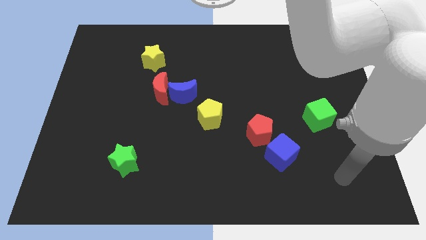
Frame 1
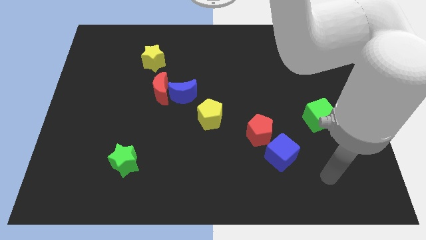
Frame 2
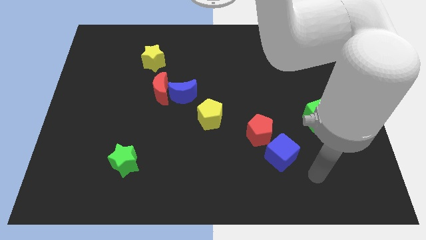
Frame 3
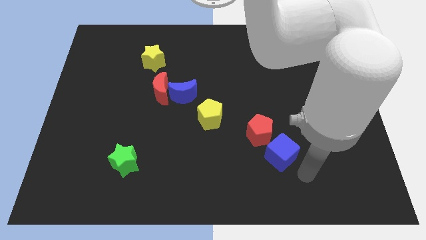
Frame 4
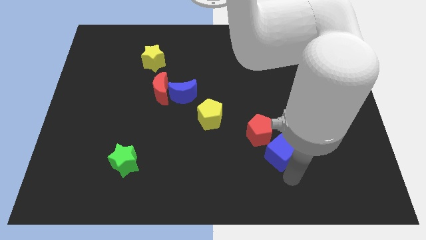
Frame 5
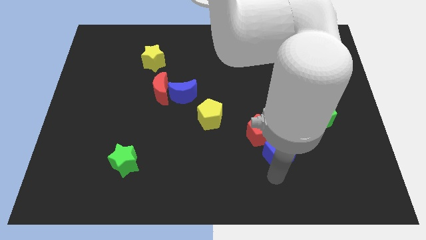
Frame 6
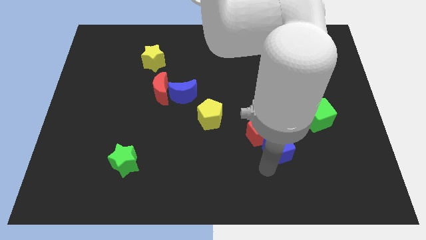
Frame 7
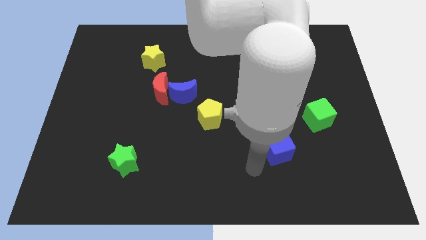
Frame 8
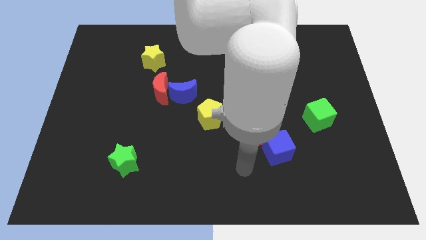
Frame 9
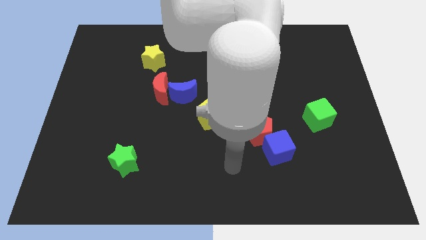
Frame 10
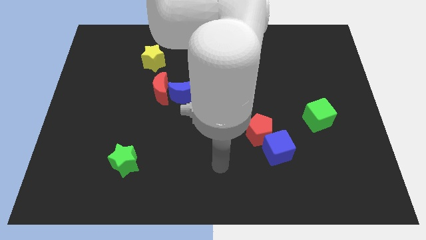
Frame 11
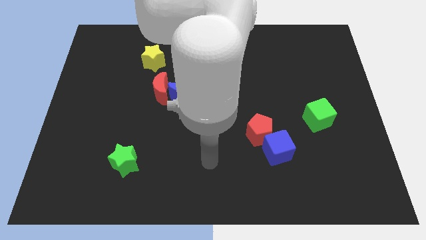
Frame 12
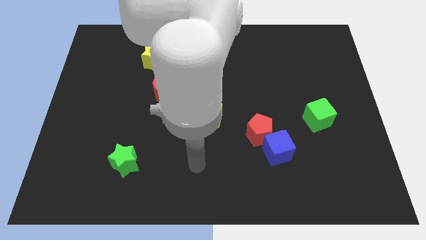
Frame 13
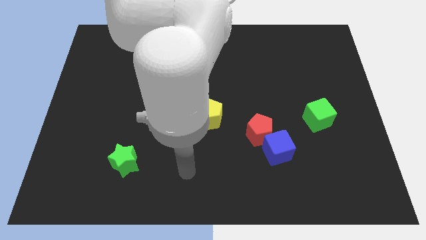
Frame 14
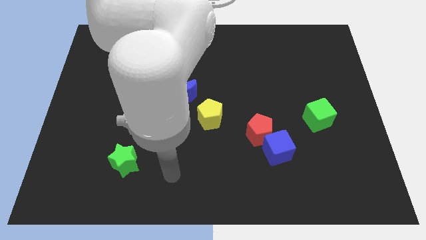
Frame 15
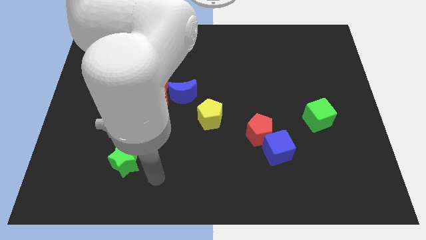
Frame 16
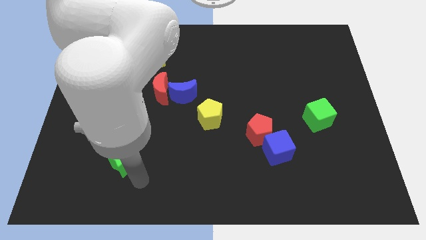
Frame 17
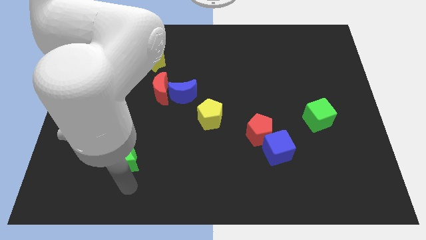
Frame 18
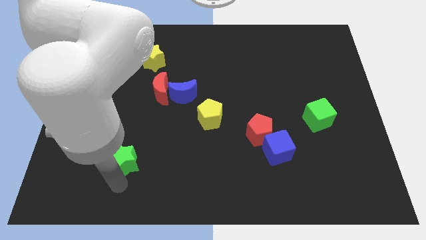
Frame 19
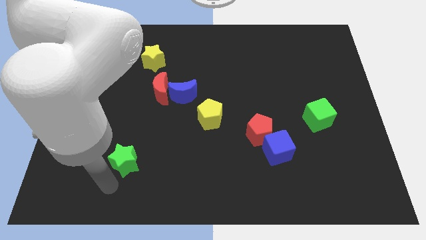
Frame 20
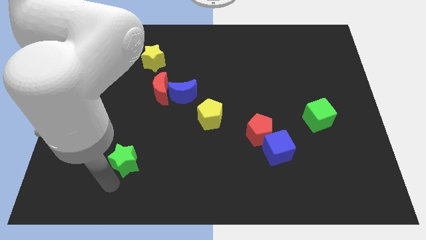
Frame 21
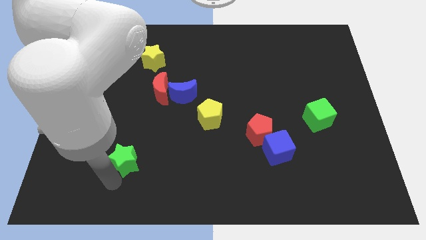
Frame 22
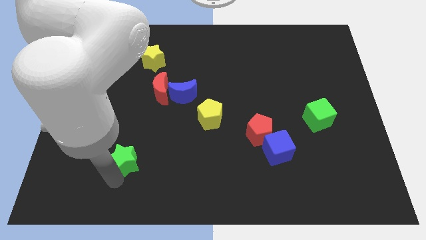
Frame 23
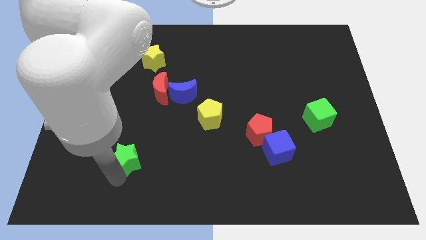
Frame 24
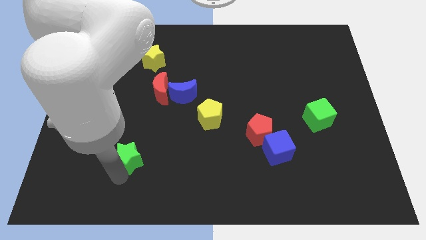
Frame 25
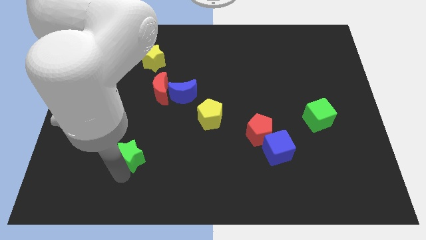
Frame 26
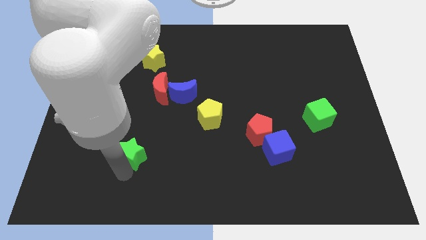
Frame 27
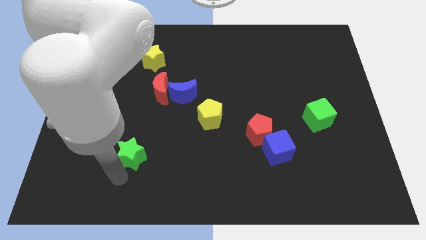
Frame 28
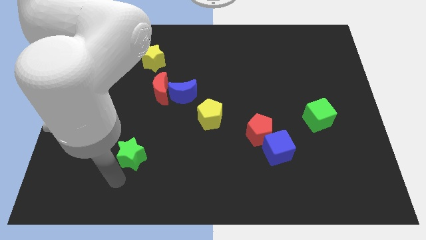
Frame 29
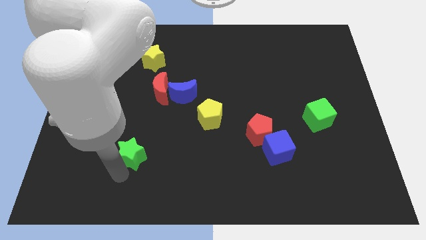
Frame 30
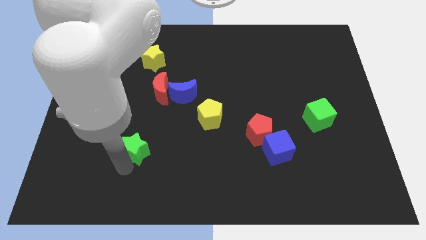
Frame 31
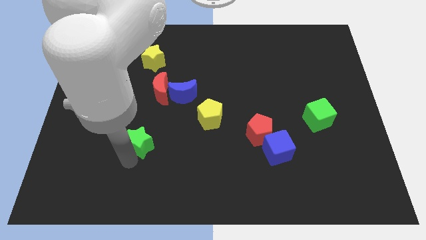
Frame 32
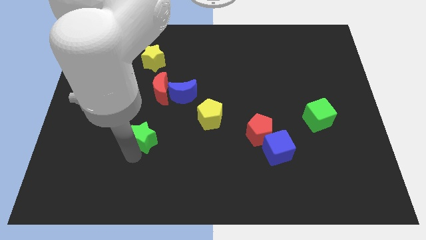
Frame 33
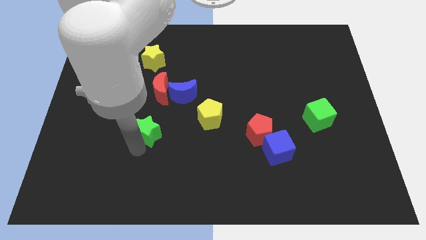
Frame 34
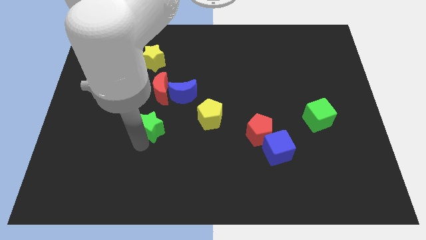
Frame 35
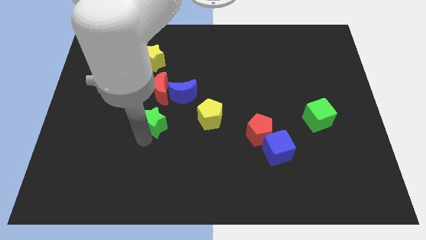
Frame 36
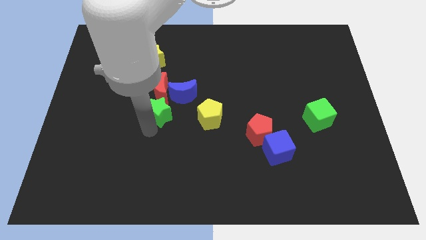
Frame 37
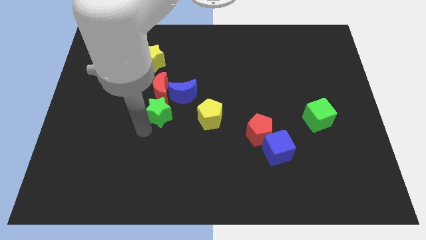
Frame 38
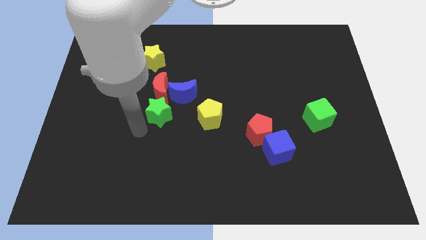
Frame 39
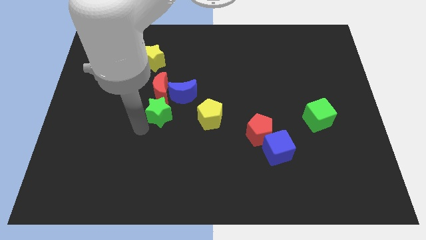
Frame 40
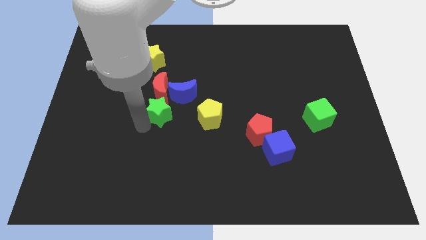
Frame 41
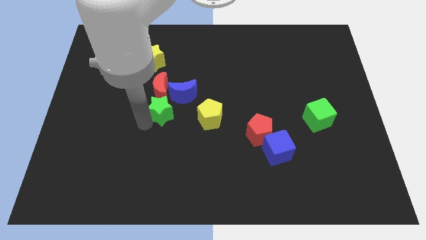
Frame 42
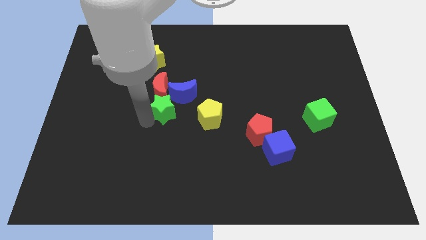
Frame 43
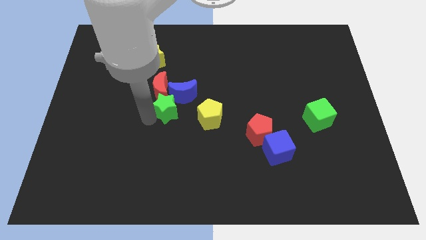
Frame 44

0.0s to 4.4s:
put the green star close to the blue moon

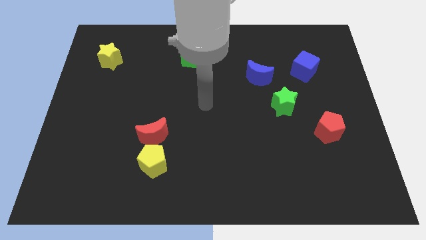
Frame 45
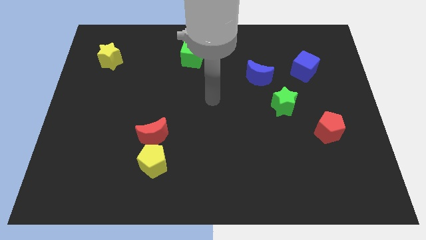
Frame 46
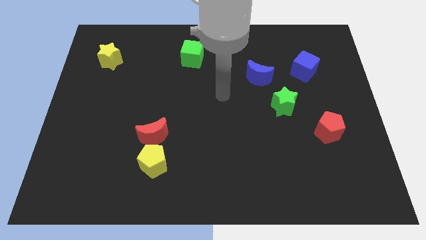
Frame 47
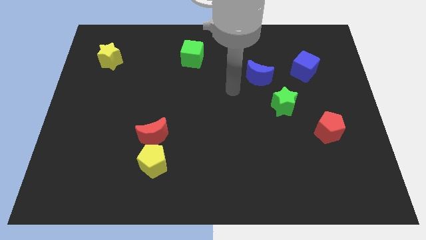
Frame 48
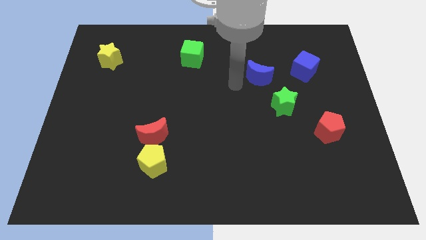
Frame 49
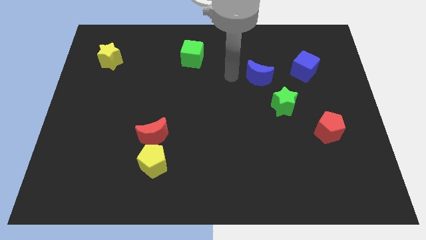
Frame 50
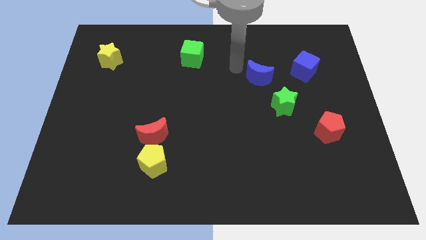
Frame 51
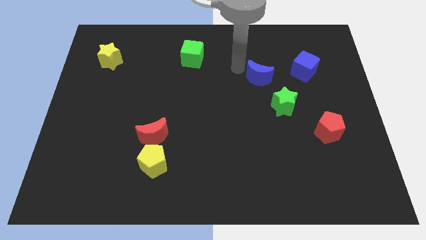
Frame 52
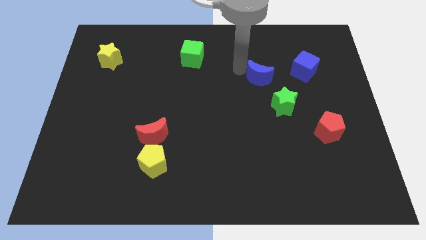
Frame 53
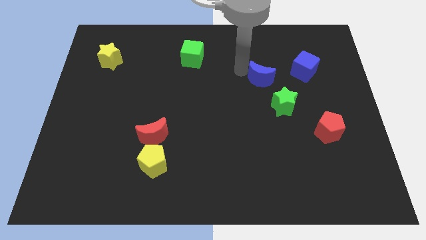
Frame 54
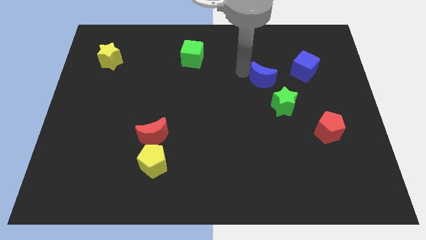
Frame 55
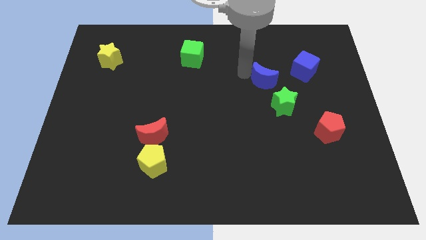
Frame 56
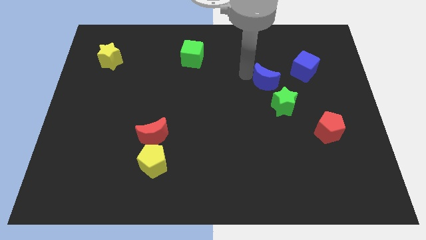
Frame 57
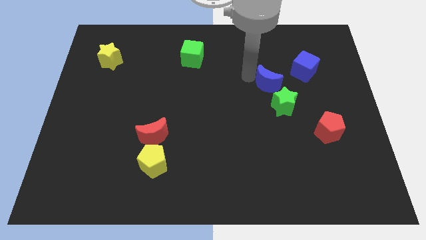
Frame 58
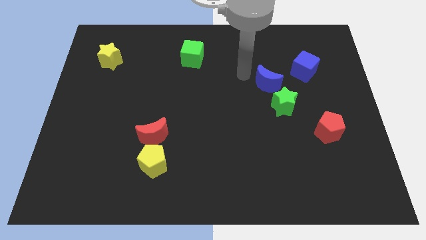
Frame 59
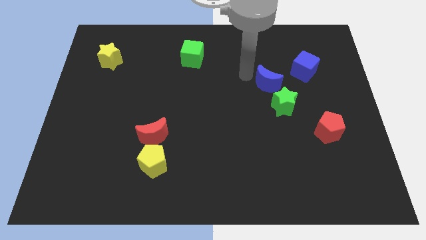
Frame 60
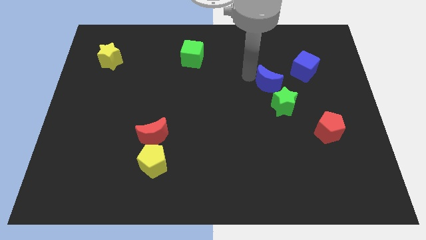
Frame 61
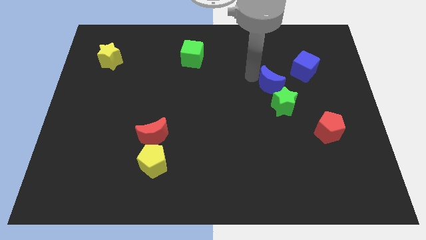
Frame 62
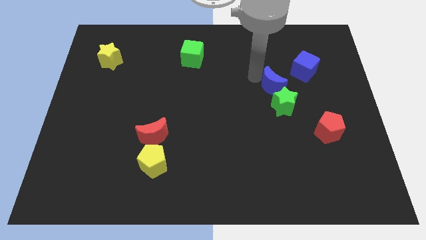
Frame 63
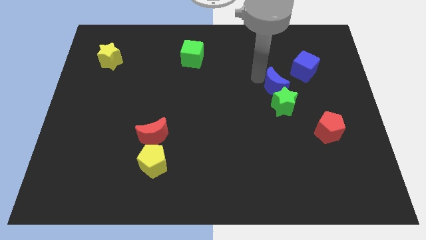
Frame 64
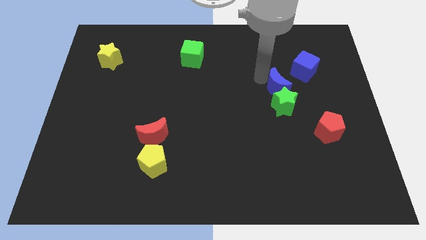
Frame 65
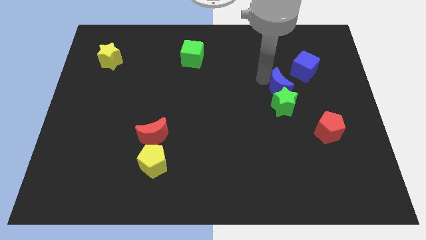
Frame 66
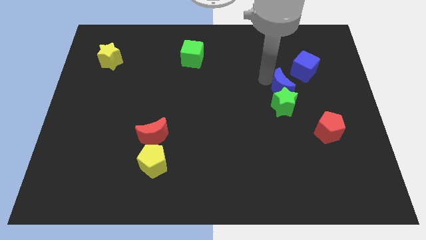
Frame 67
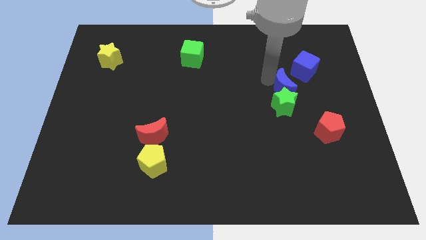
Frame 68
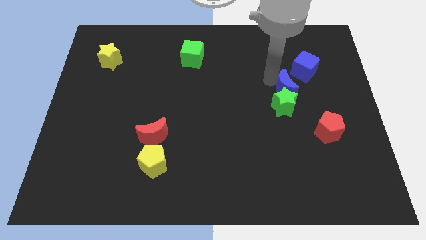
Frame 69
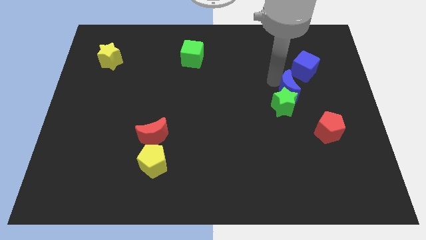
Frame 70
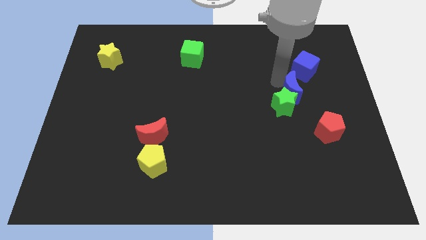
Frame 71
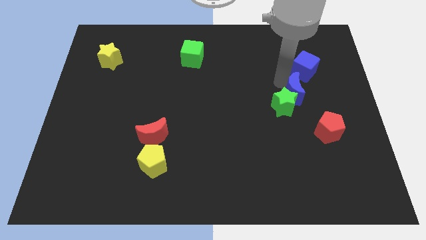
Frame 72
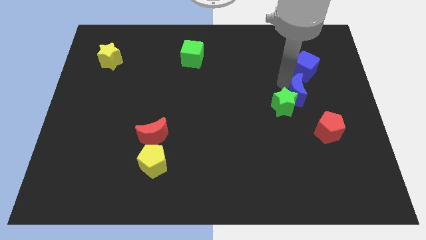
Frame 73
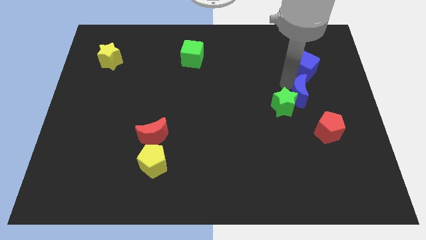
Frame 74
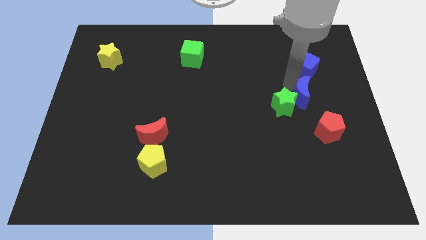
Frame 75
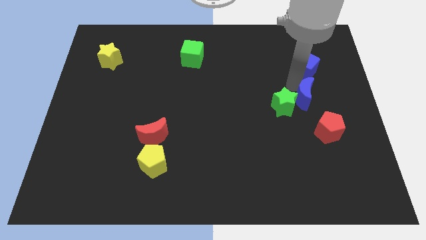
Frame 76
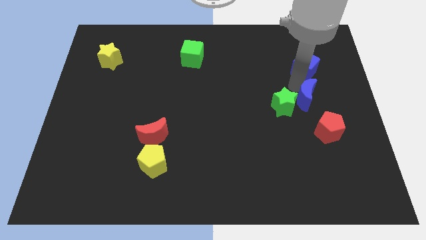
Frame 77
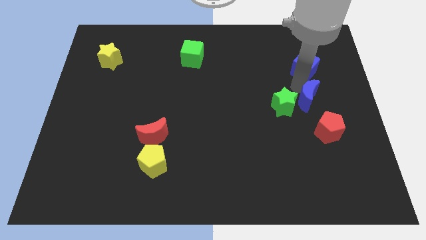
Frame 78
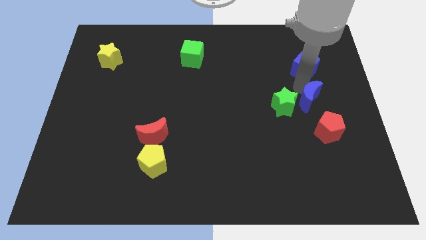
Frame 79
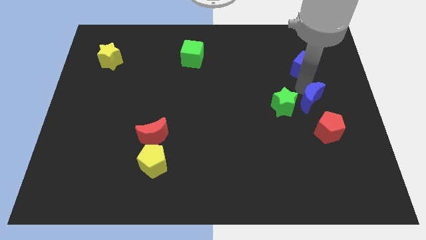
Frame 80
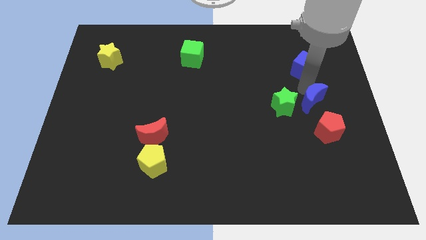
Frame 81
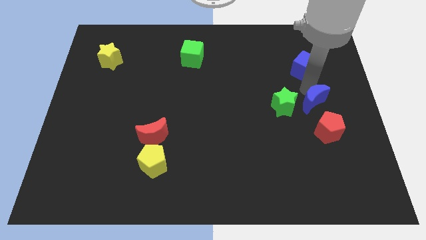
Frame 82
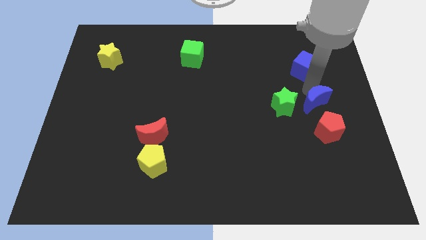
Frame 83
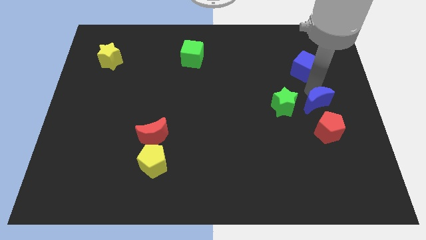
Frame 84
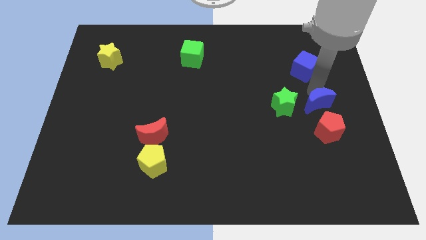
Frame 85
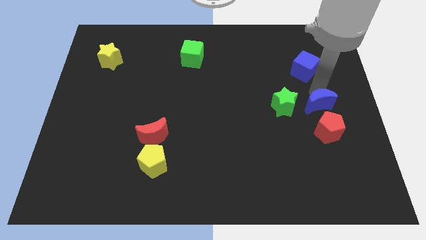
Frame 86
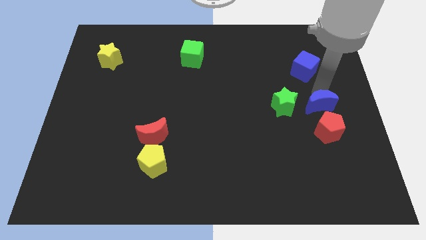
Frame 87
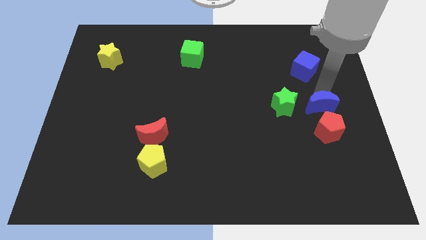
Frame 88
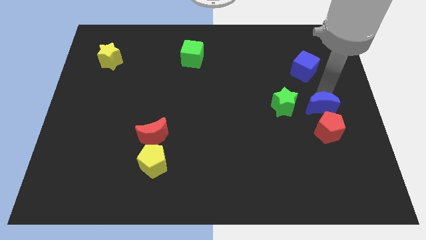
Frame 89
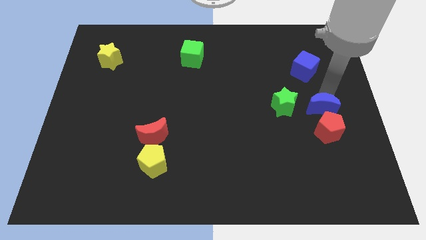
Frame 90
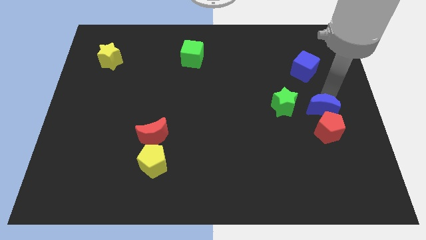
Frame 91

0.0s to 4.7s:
move the blue moon close to the red pentagon
